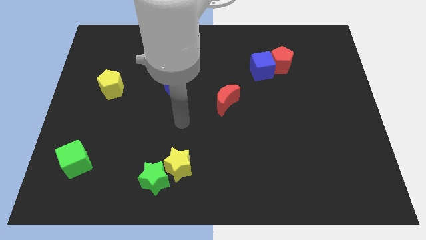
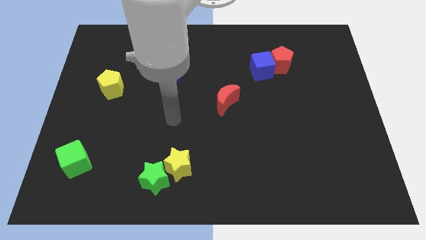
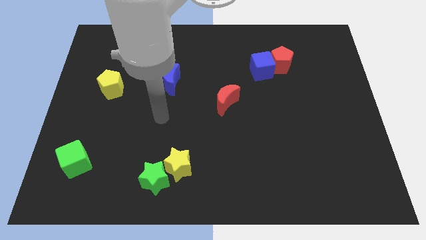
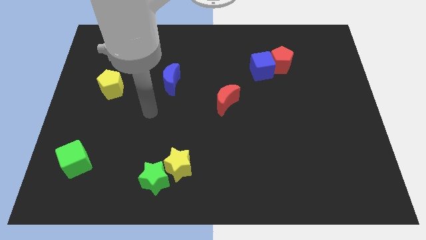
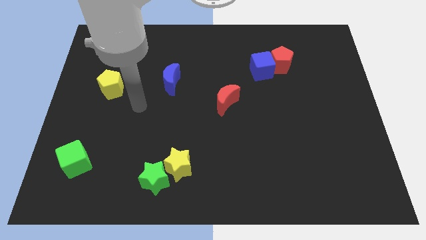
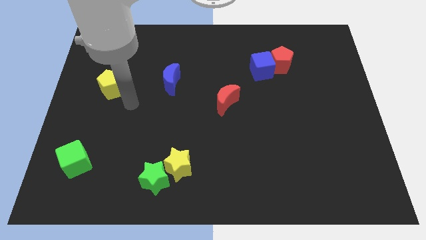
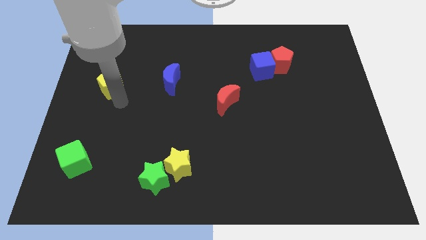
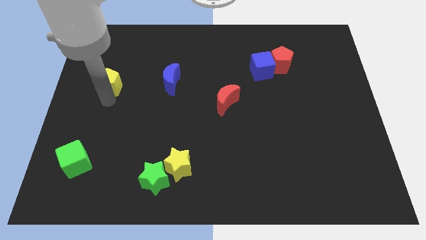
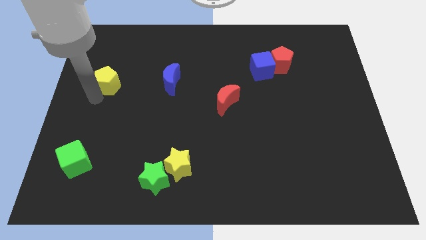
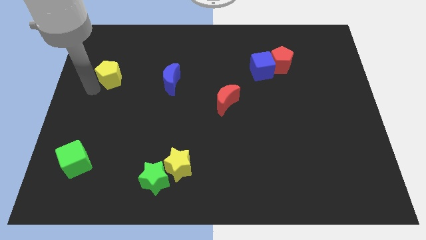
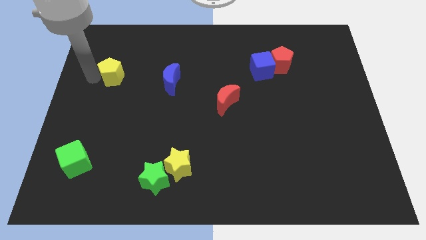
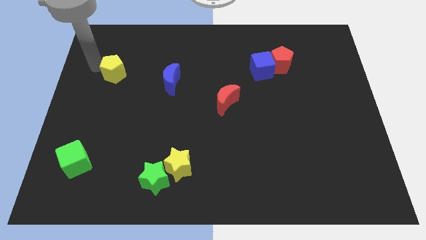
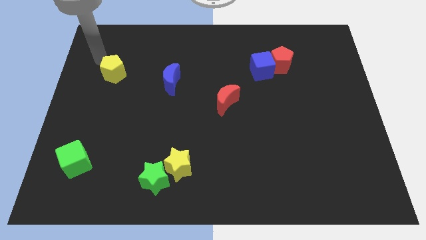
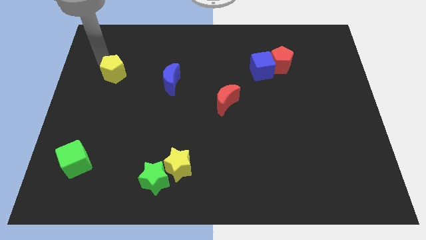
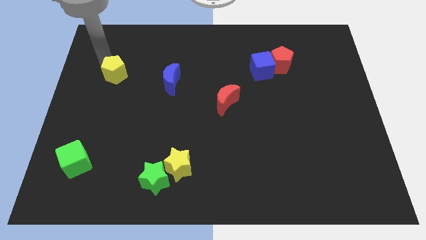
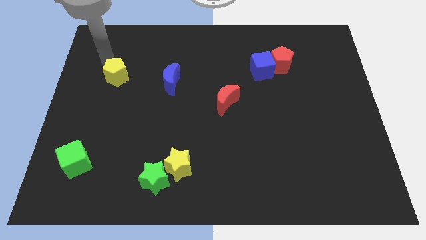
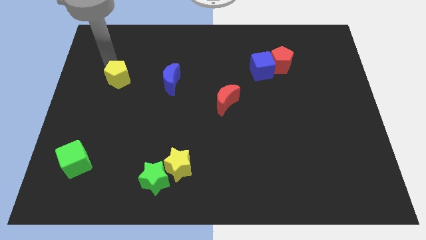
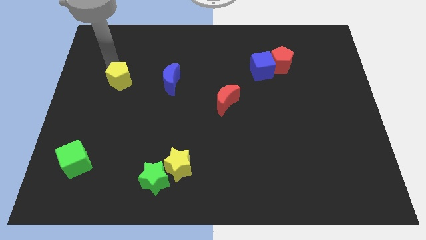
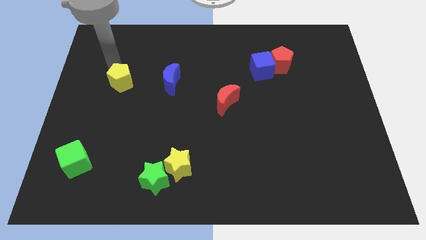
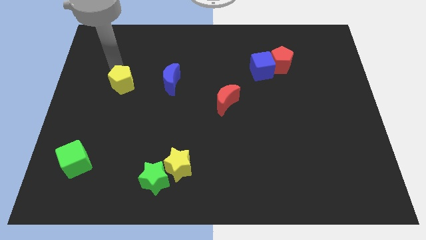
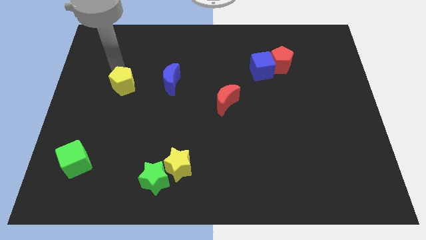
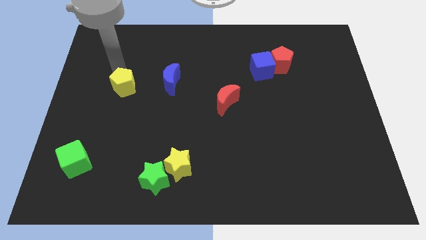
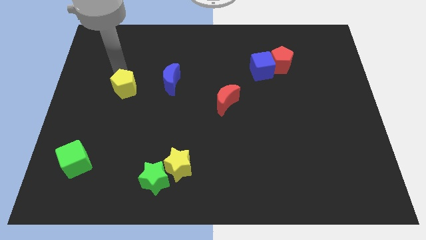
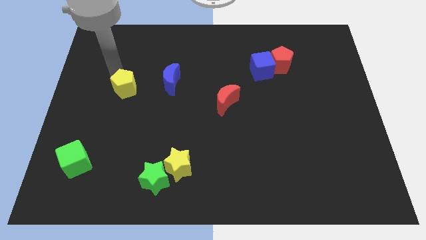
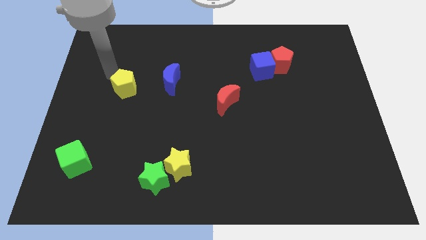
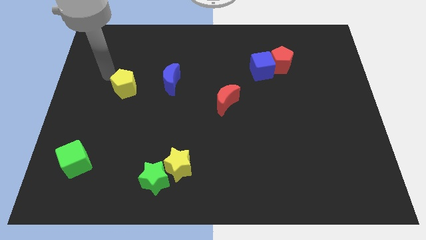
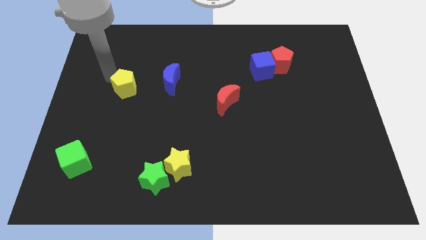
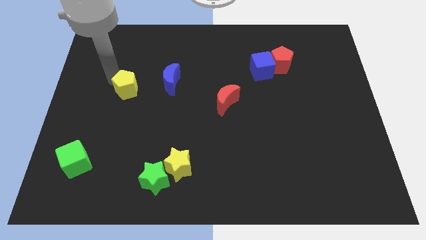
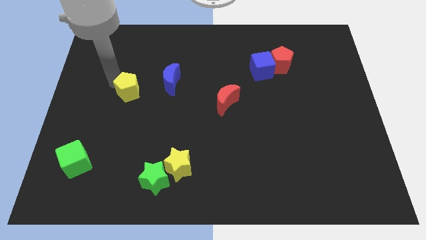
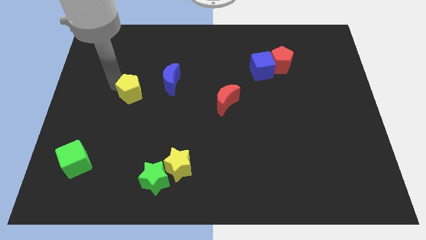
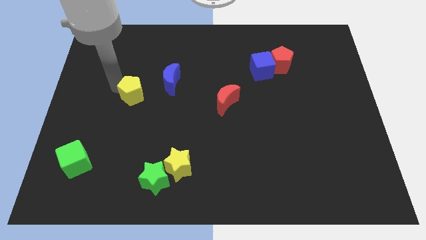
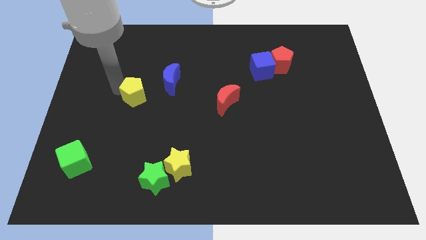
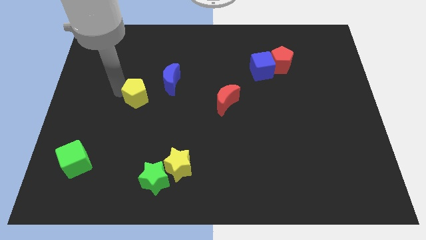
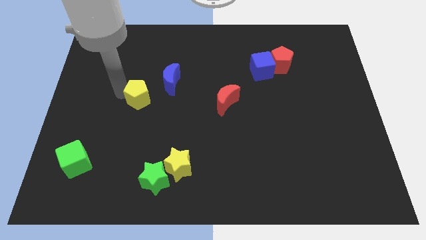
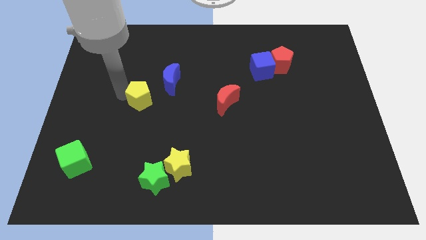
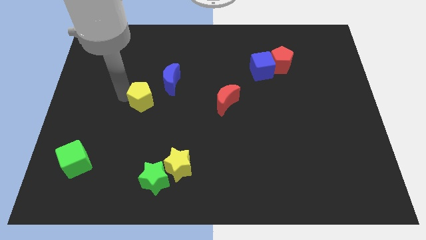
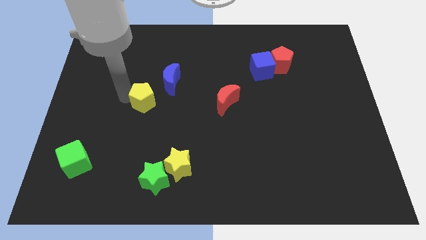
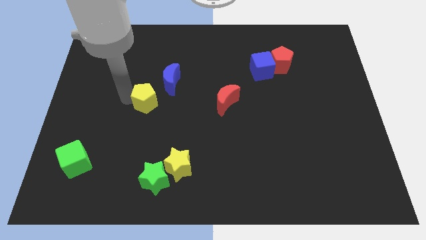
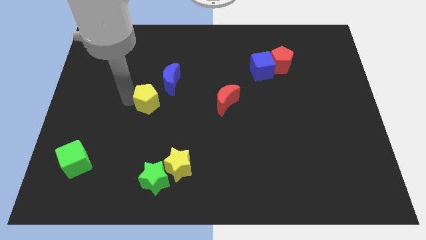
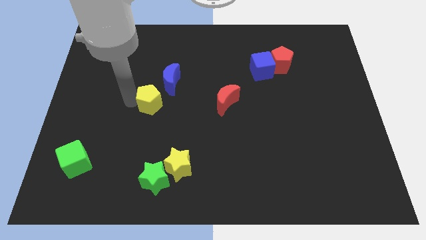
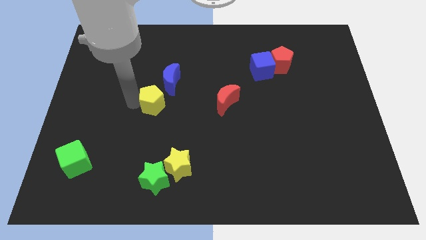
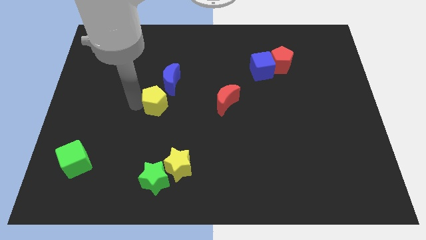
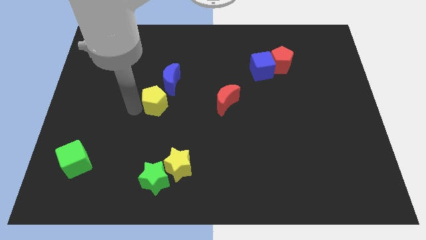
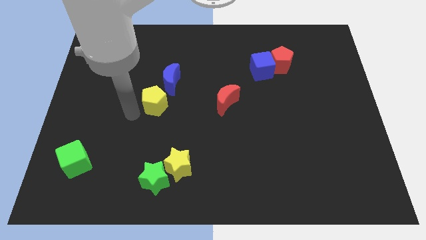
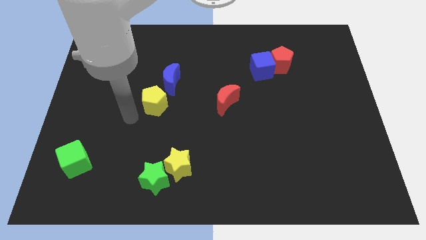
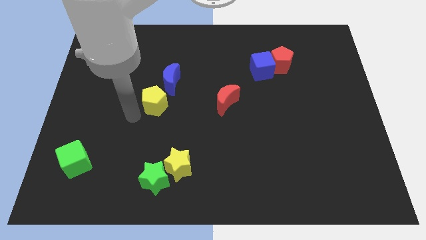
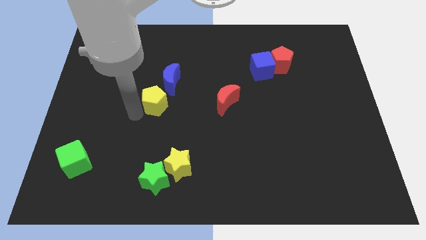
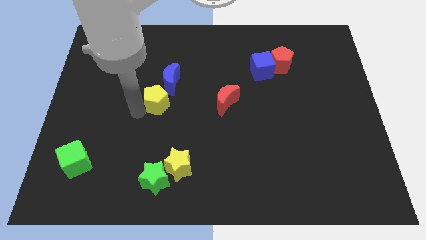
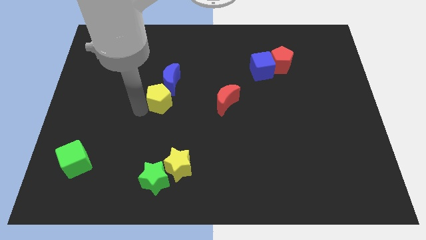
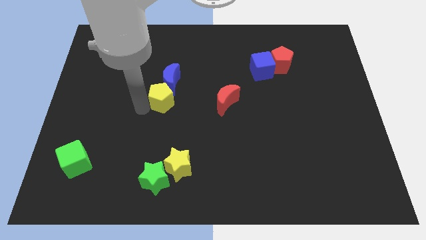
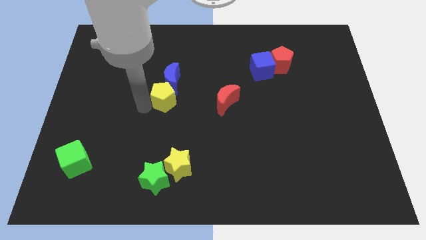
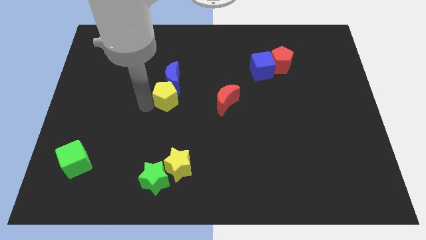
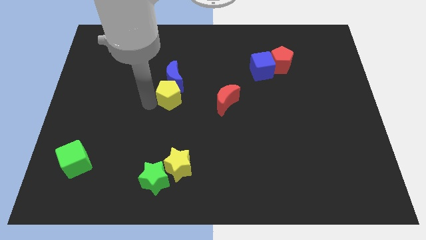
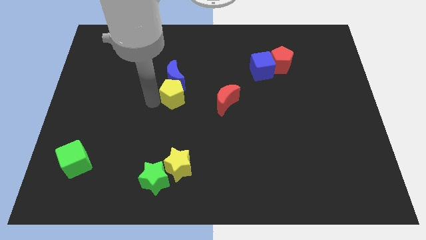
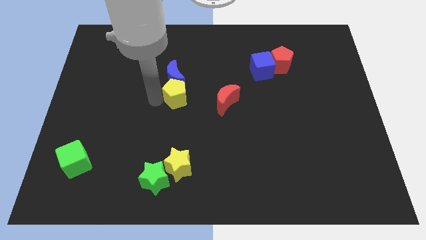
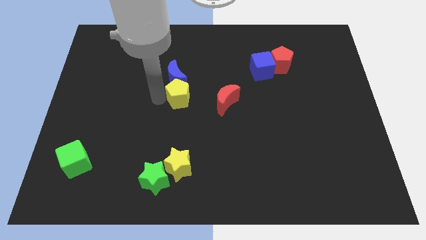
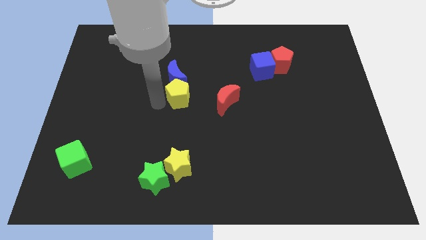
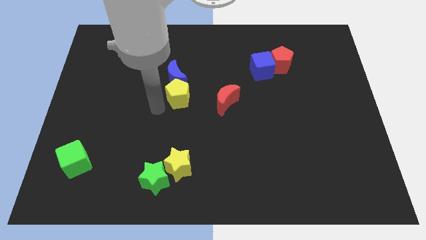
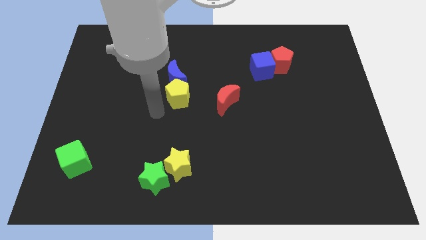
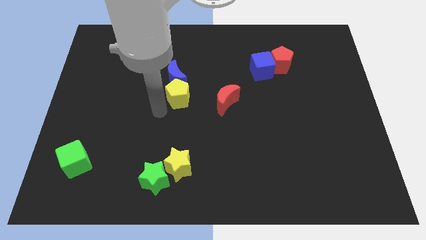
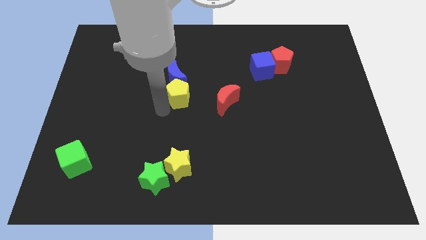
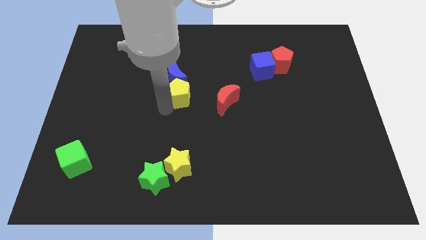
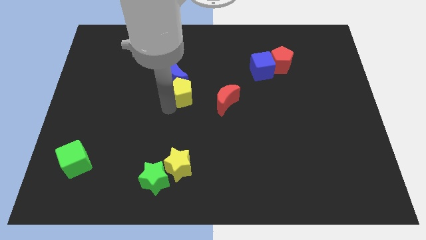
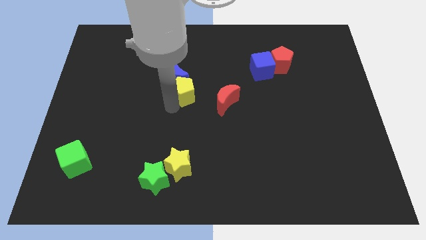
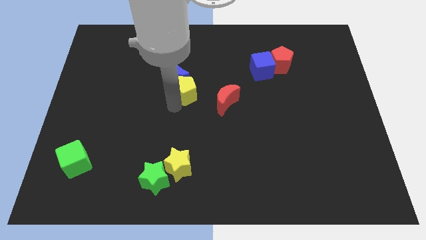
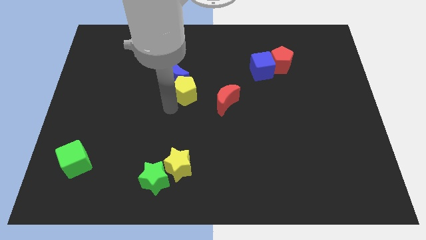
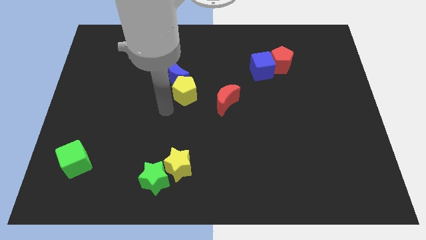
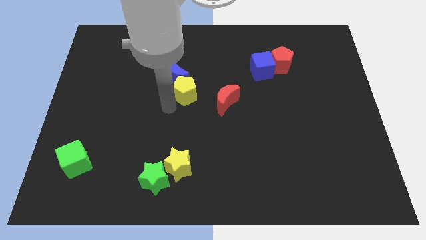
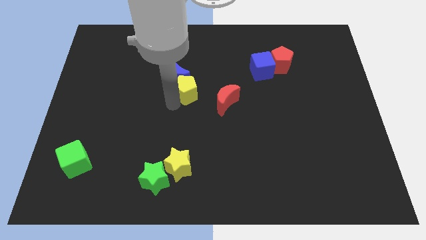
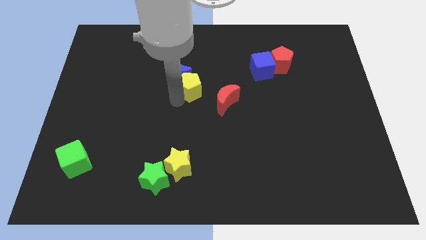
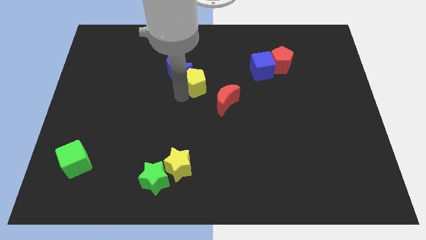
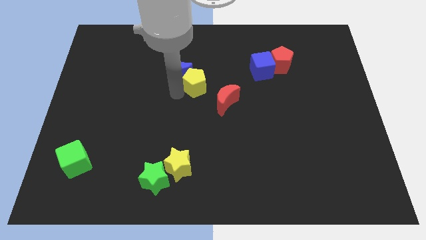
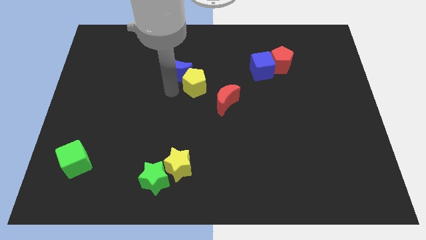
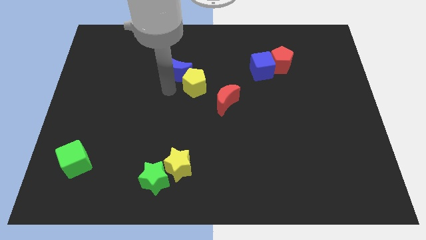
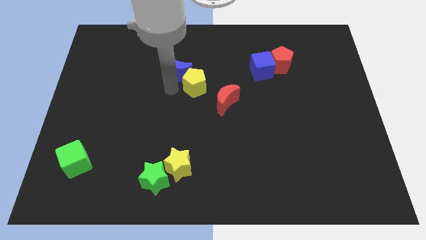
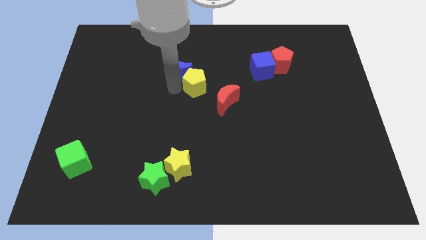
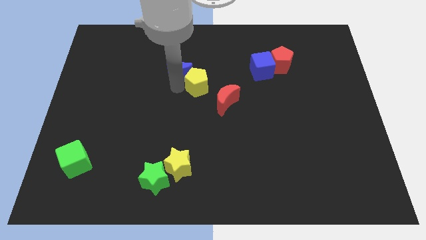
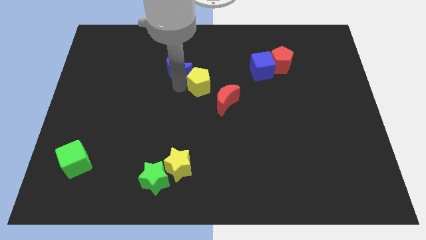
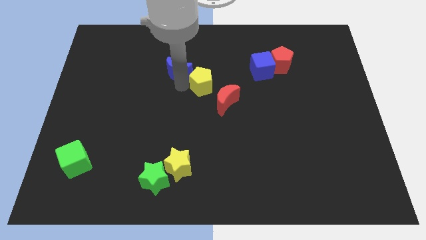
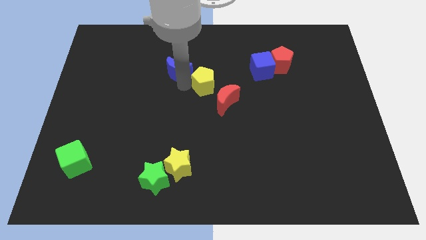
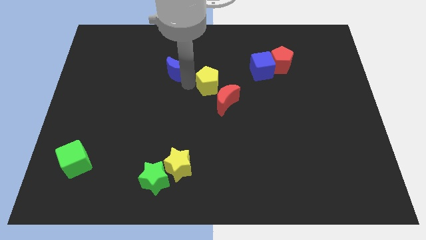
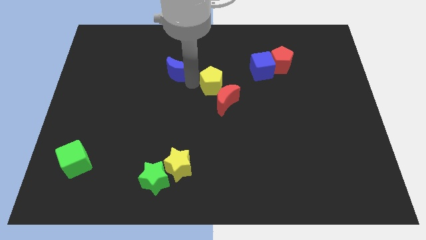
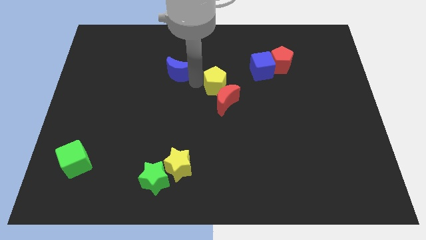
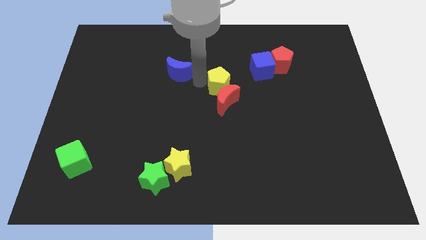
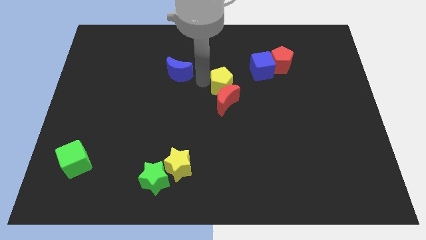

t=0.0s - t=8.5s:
move the yellow pentagon to the top right side of the red moon
